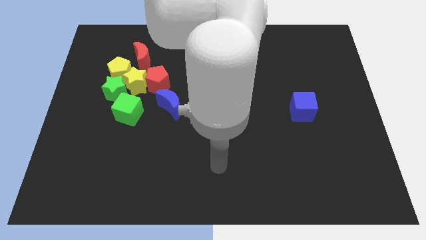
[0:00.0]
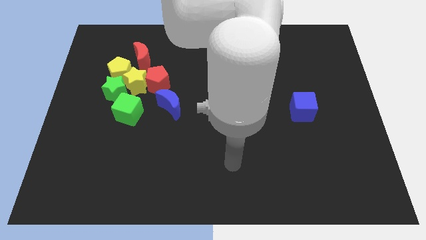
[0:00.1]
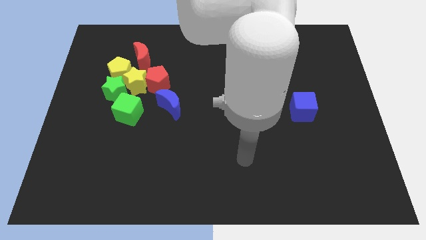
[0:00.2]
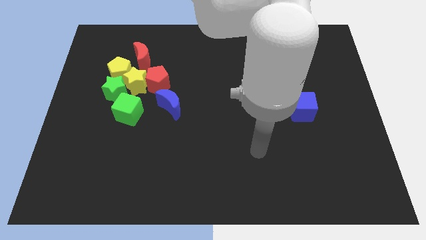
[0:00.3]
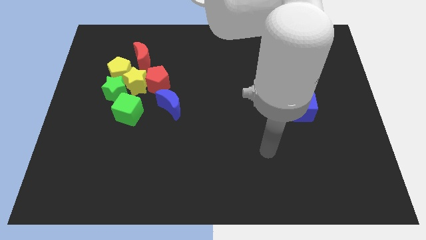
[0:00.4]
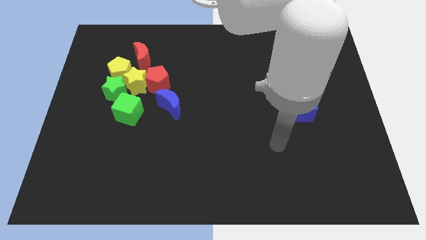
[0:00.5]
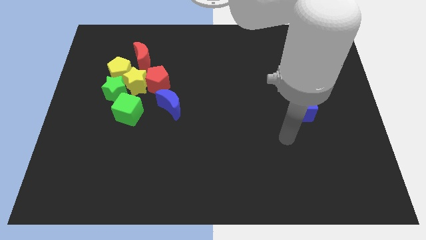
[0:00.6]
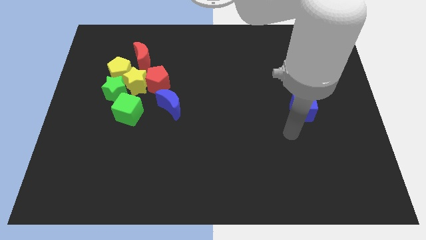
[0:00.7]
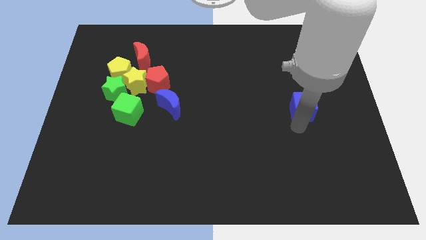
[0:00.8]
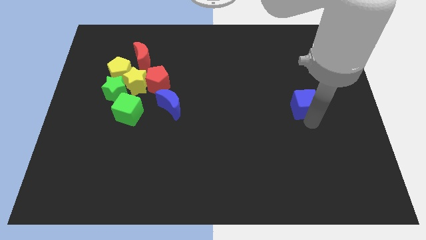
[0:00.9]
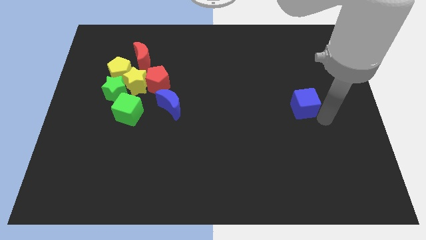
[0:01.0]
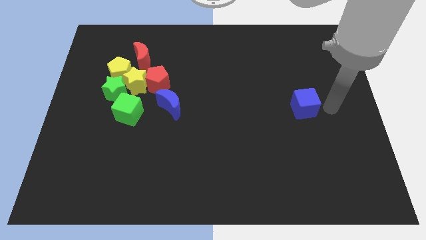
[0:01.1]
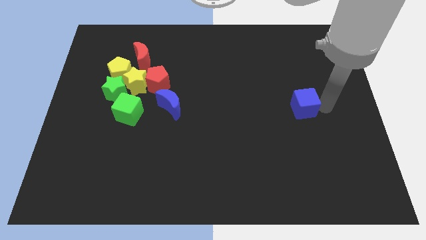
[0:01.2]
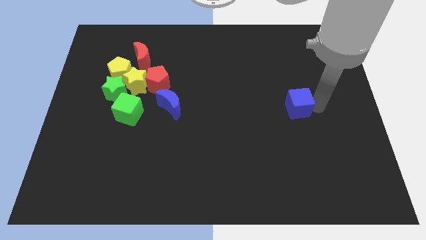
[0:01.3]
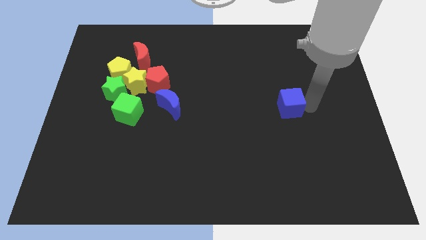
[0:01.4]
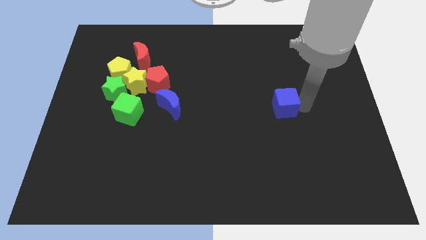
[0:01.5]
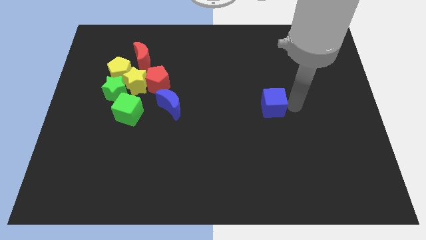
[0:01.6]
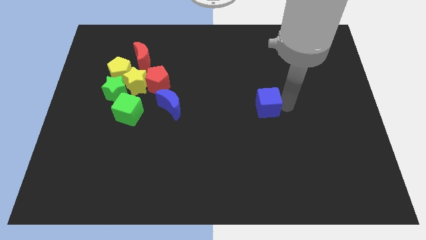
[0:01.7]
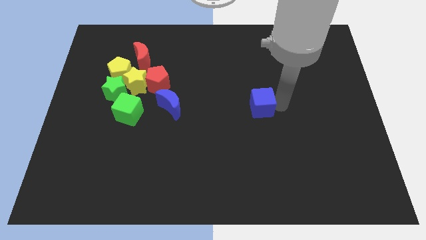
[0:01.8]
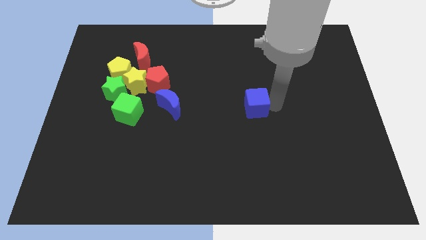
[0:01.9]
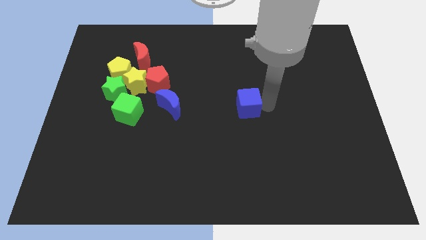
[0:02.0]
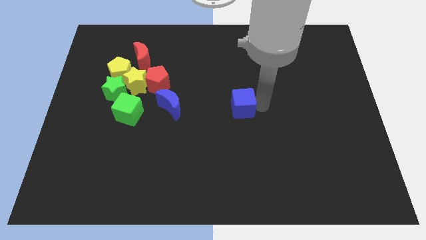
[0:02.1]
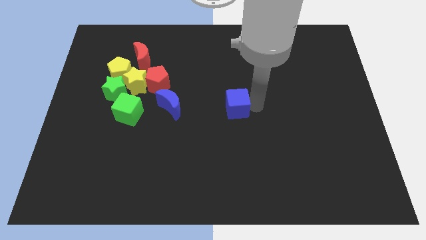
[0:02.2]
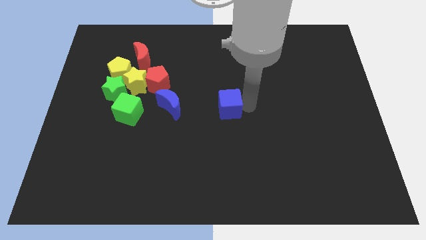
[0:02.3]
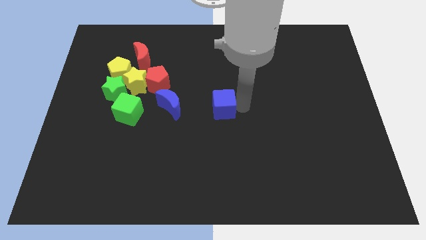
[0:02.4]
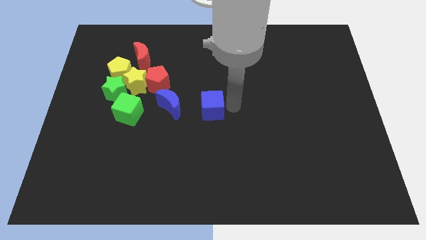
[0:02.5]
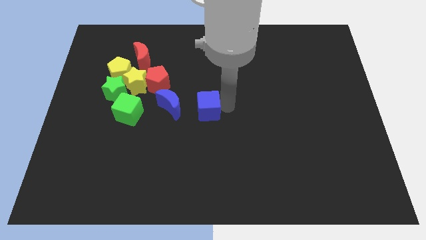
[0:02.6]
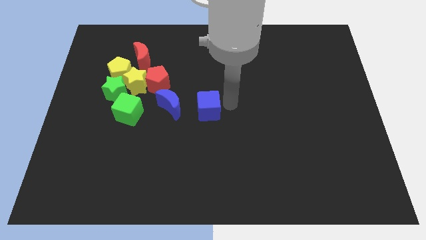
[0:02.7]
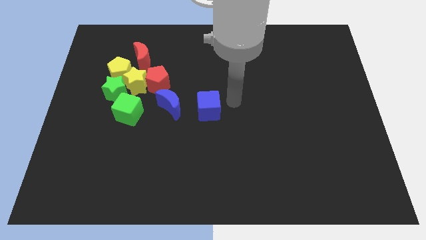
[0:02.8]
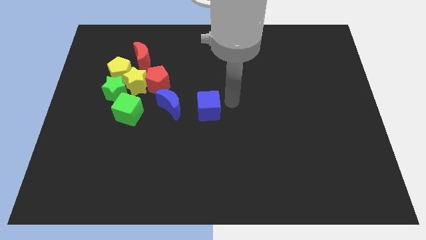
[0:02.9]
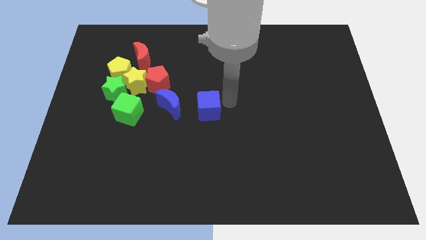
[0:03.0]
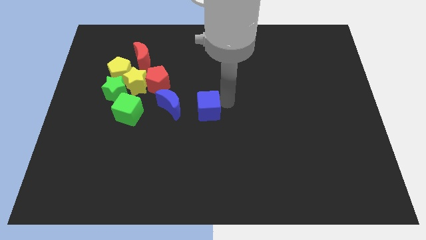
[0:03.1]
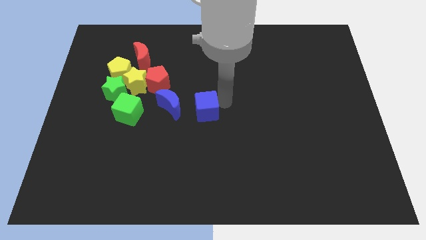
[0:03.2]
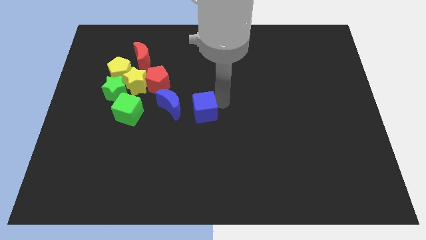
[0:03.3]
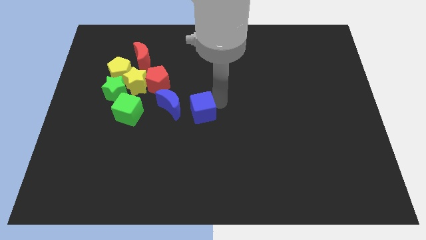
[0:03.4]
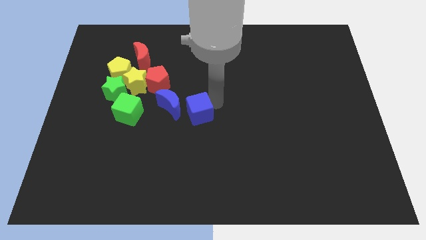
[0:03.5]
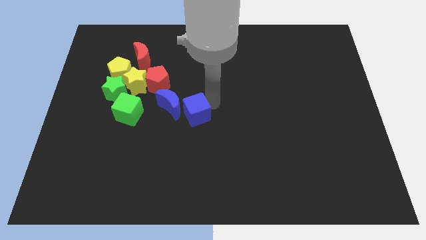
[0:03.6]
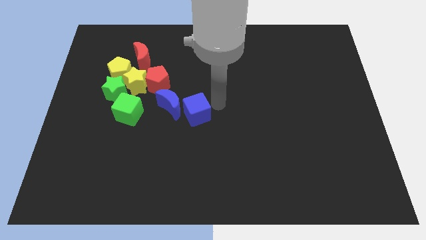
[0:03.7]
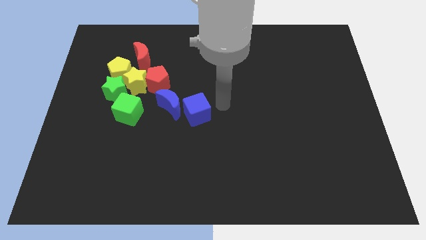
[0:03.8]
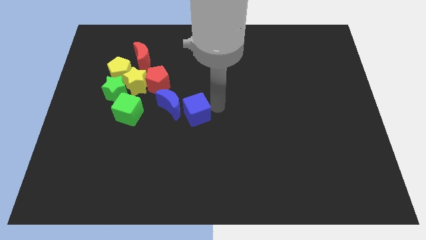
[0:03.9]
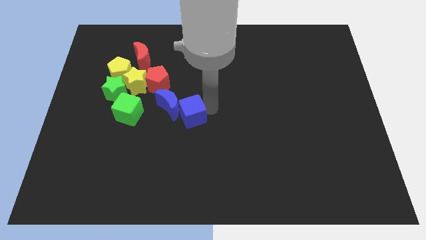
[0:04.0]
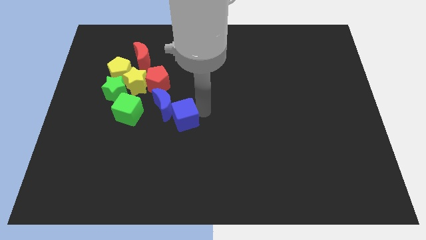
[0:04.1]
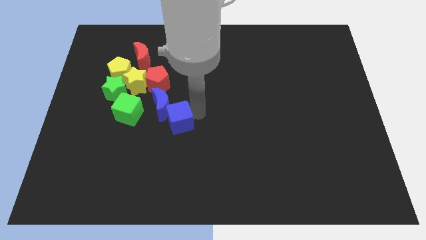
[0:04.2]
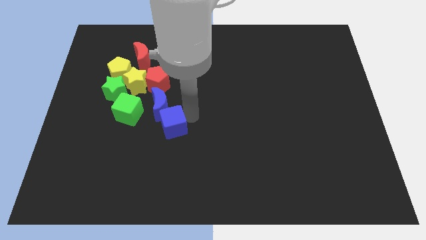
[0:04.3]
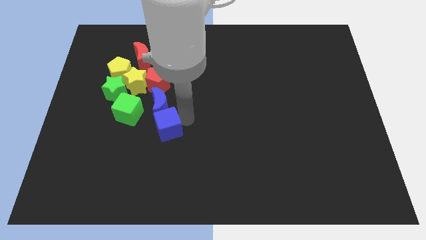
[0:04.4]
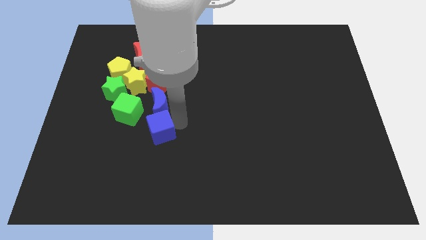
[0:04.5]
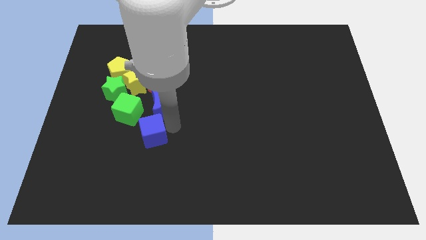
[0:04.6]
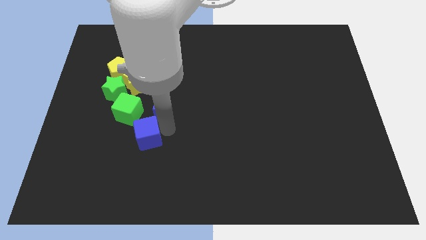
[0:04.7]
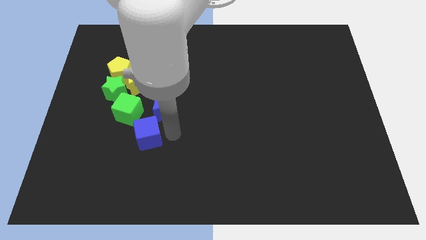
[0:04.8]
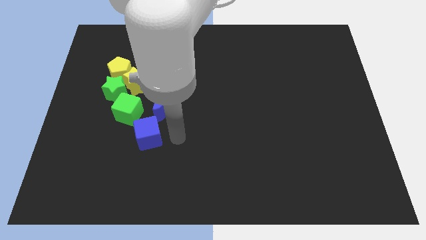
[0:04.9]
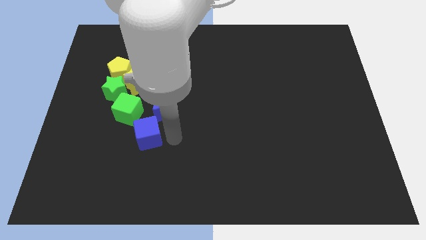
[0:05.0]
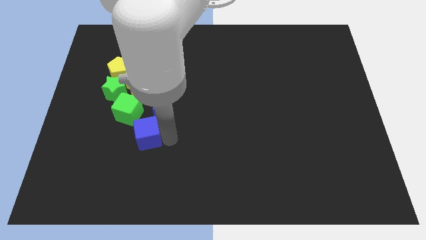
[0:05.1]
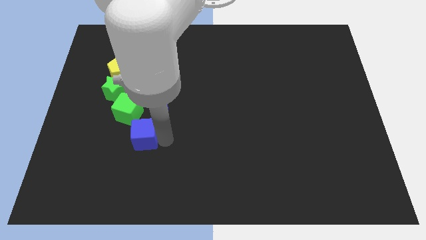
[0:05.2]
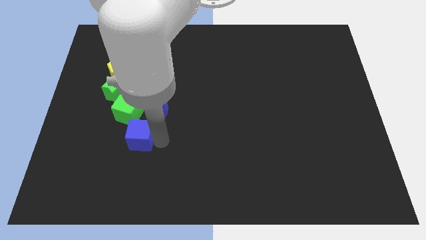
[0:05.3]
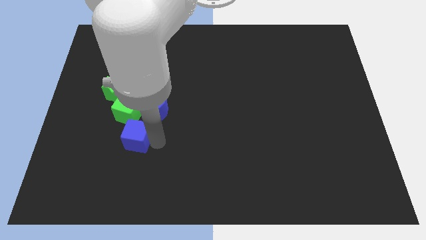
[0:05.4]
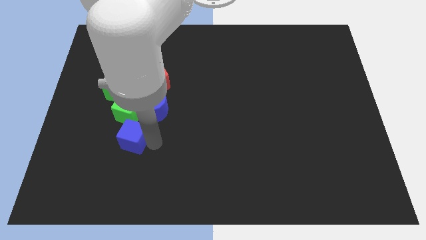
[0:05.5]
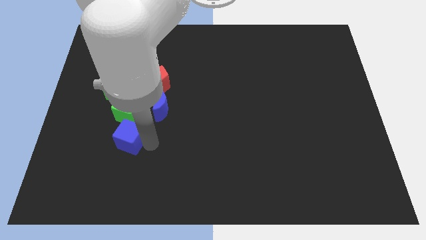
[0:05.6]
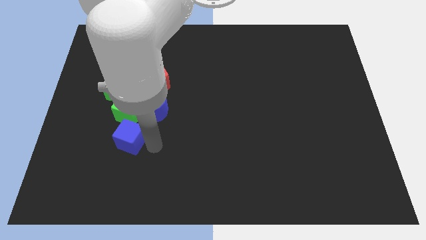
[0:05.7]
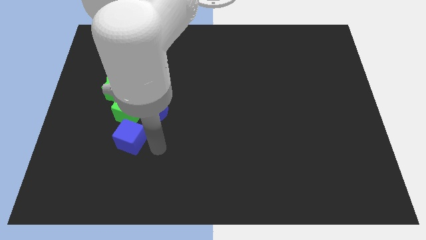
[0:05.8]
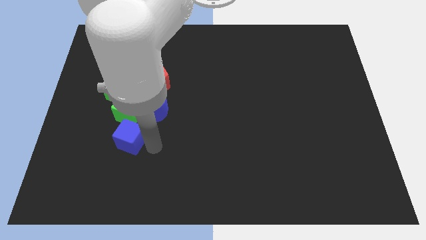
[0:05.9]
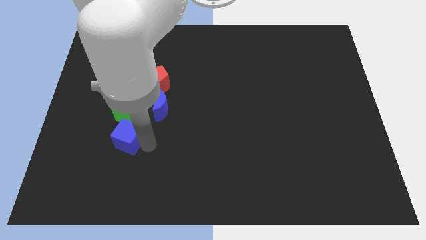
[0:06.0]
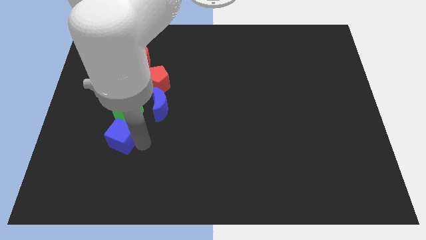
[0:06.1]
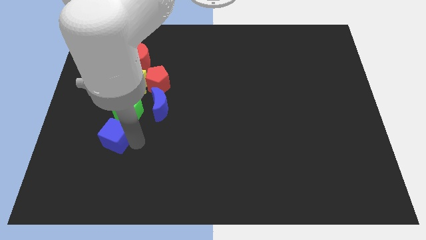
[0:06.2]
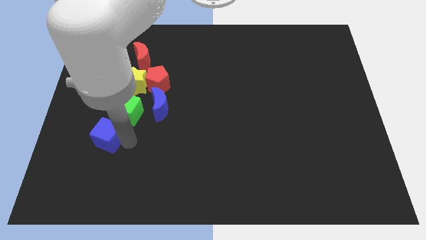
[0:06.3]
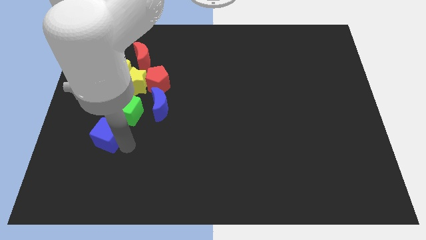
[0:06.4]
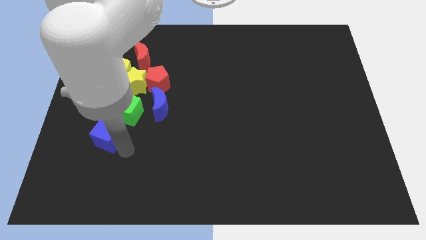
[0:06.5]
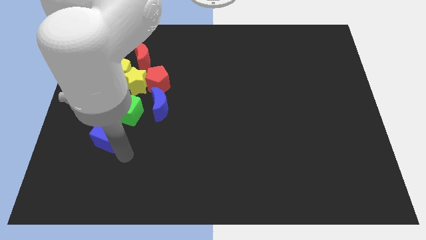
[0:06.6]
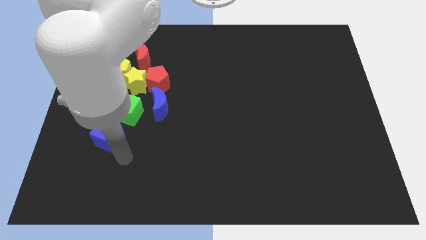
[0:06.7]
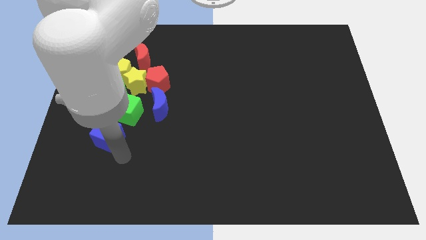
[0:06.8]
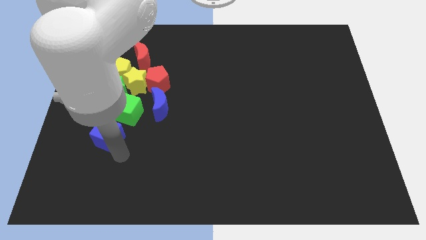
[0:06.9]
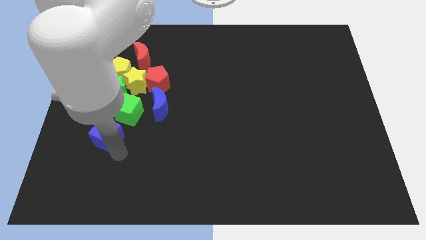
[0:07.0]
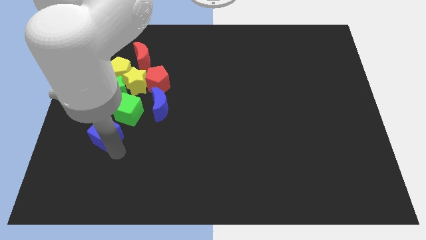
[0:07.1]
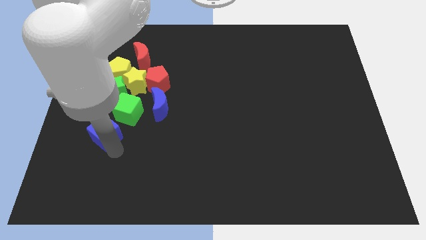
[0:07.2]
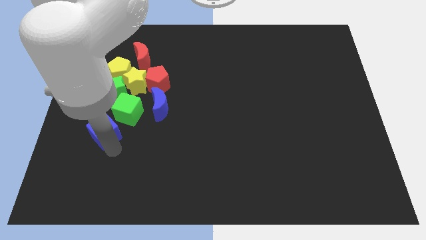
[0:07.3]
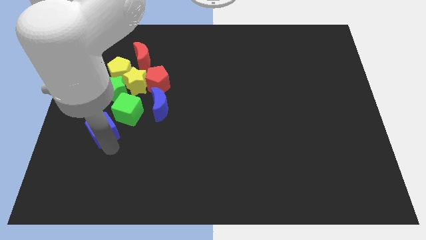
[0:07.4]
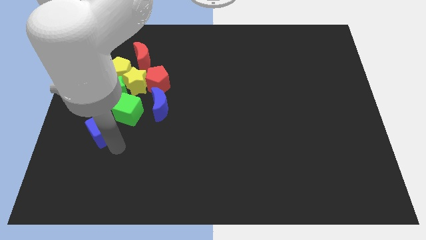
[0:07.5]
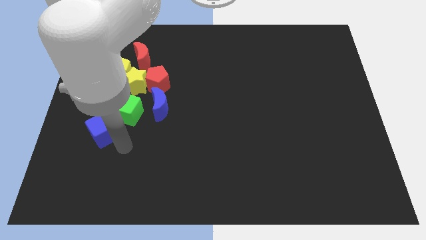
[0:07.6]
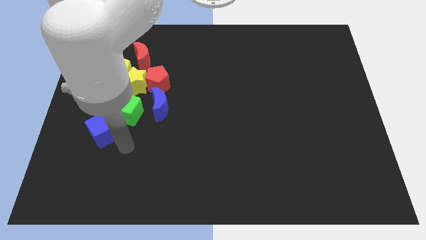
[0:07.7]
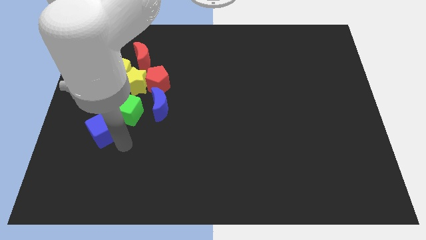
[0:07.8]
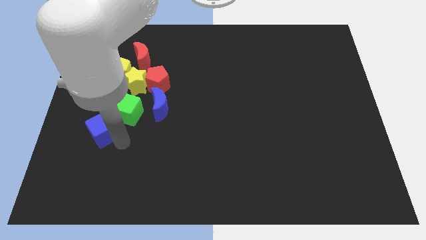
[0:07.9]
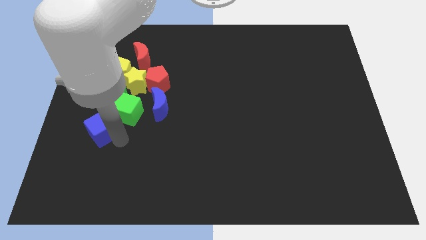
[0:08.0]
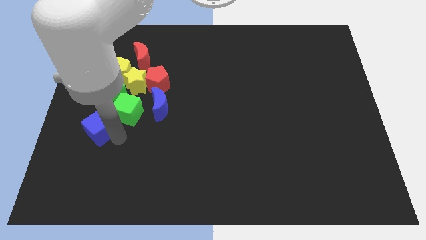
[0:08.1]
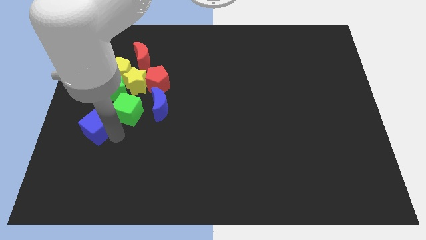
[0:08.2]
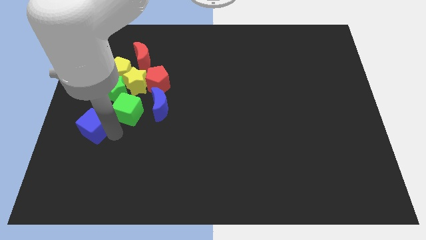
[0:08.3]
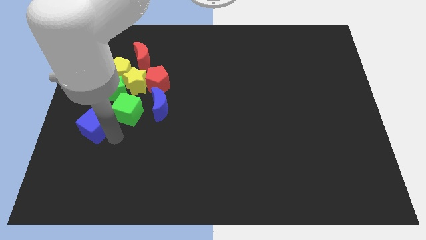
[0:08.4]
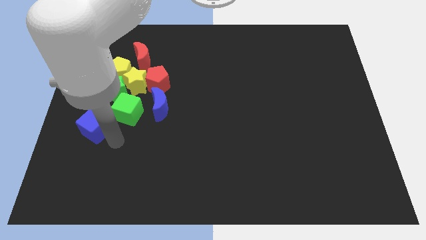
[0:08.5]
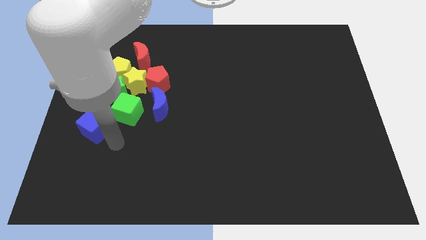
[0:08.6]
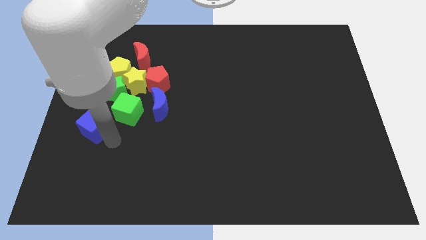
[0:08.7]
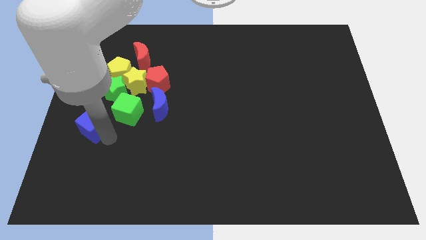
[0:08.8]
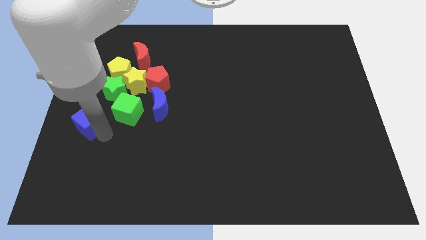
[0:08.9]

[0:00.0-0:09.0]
push the blue cube to the left side of the board
